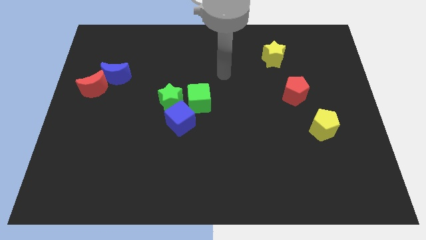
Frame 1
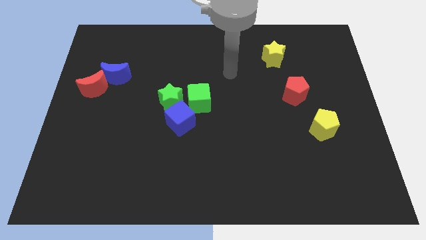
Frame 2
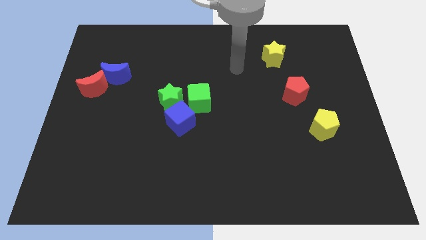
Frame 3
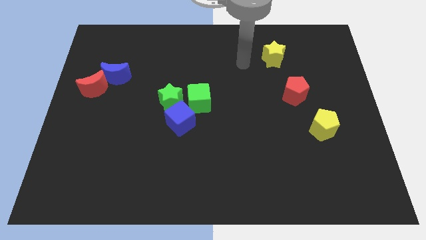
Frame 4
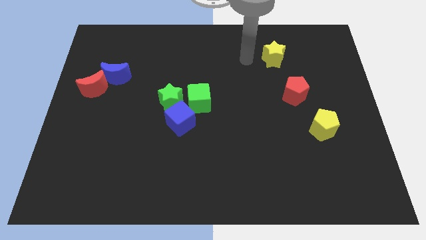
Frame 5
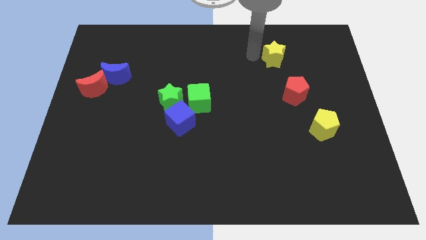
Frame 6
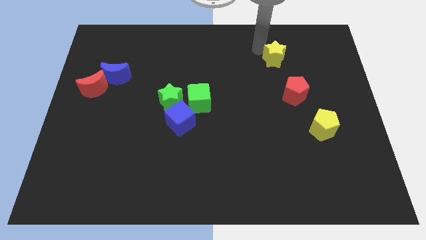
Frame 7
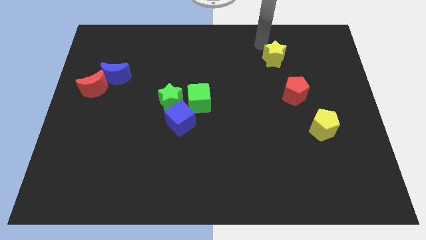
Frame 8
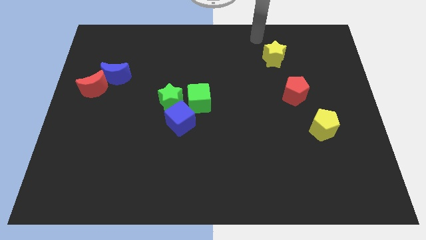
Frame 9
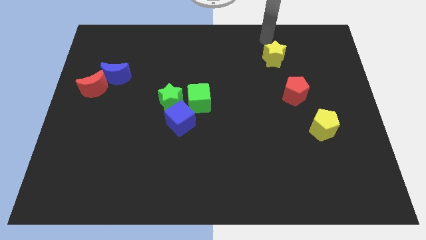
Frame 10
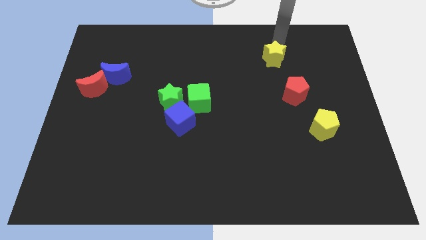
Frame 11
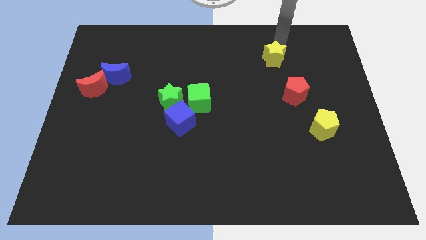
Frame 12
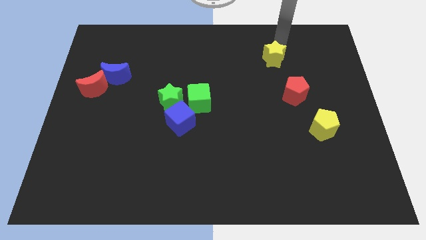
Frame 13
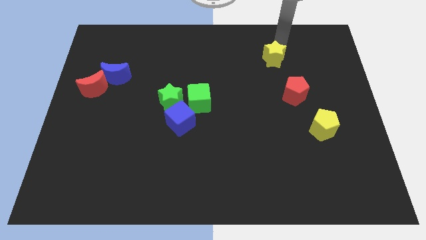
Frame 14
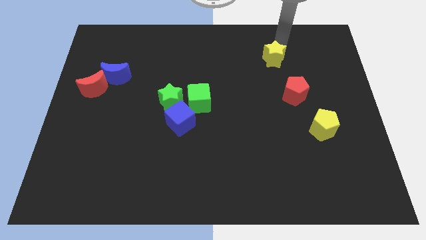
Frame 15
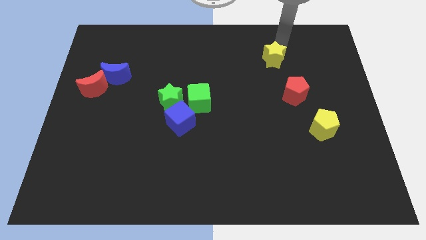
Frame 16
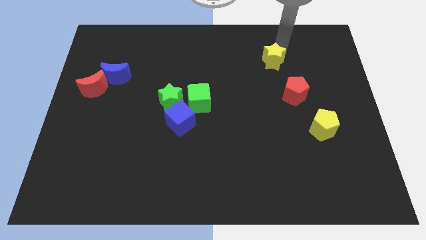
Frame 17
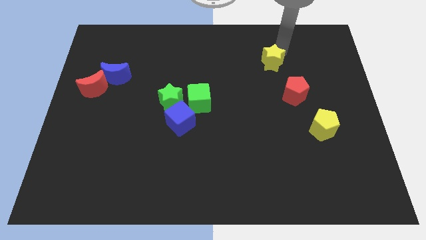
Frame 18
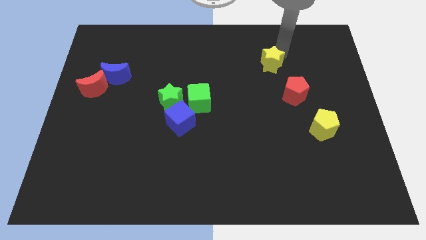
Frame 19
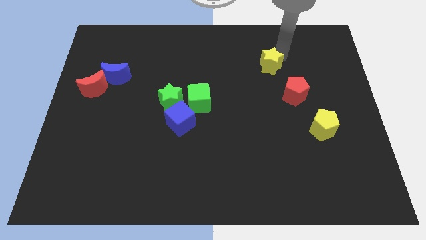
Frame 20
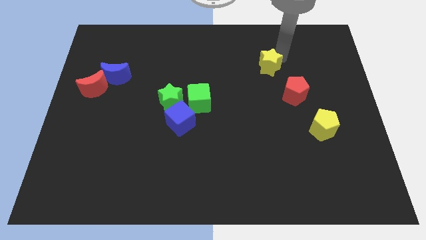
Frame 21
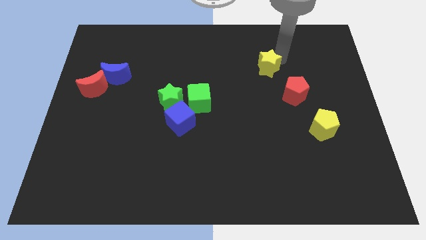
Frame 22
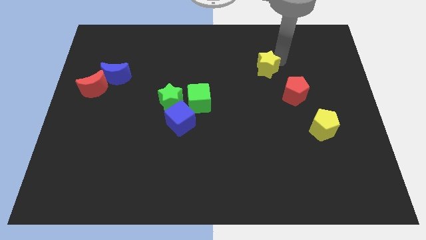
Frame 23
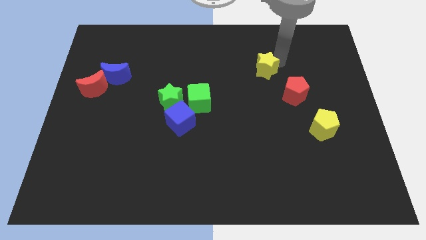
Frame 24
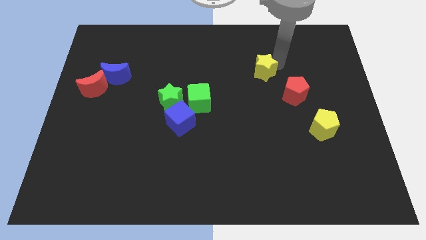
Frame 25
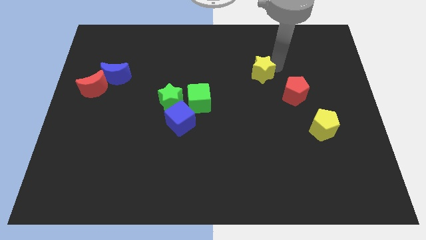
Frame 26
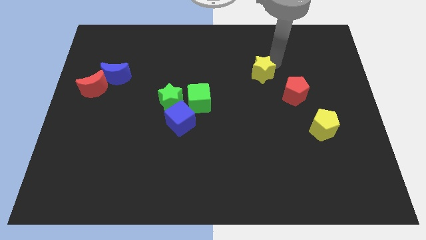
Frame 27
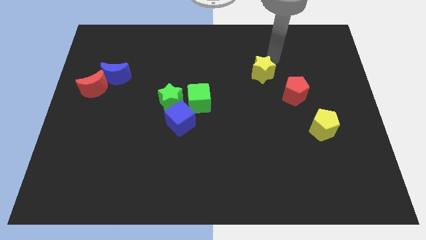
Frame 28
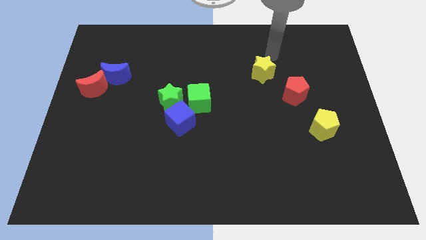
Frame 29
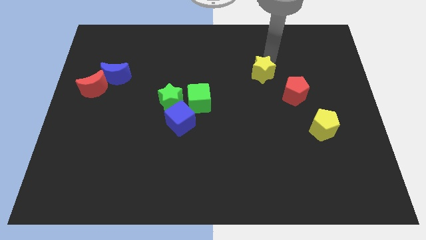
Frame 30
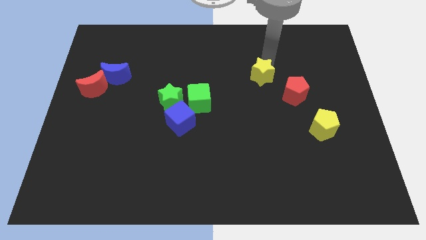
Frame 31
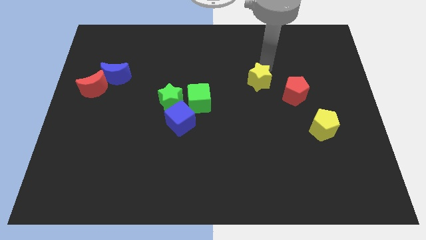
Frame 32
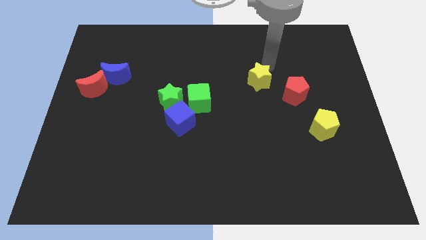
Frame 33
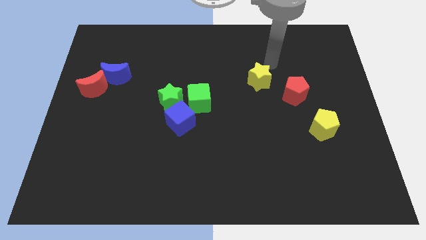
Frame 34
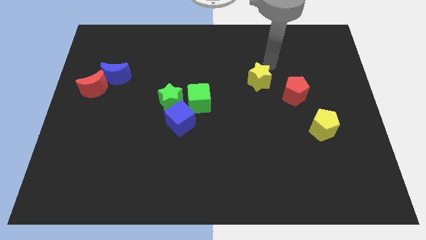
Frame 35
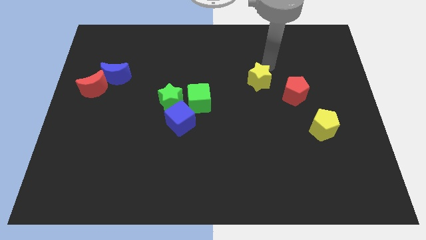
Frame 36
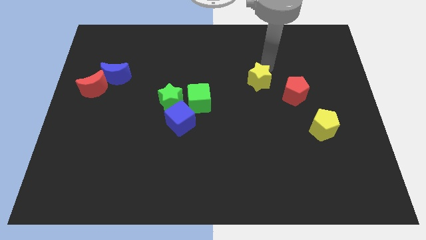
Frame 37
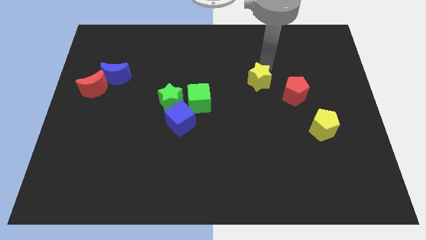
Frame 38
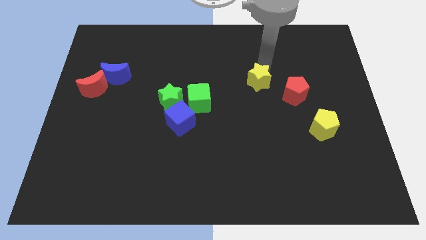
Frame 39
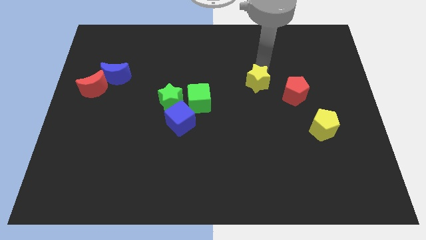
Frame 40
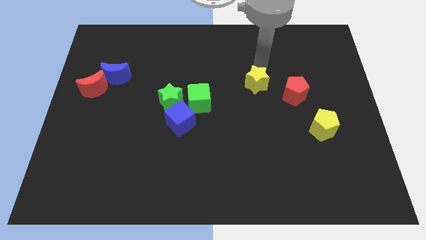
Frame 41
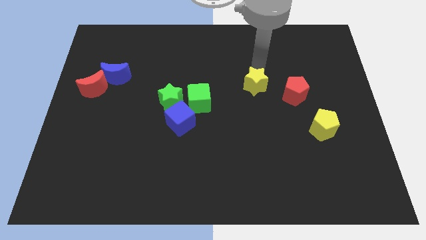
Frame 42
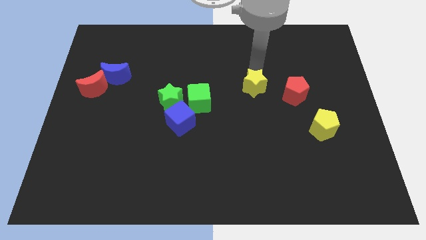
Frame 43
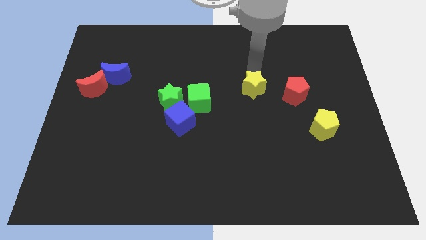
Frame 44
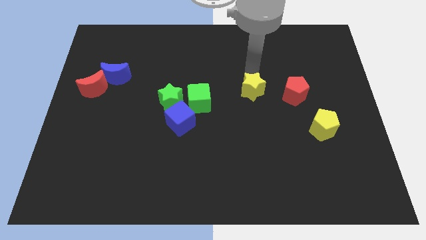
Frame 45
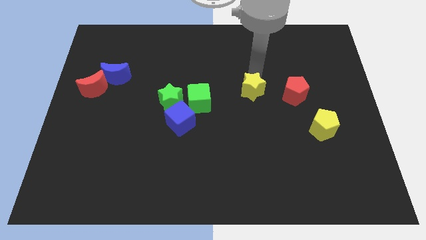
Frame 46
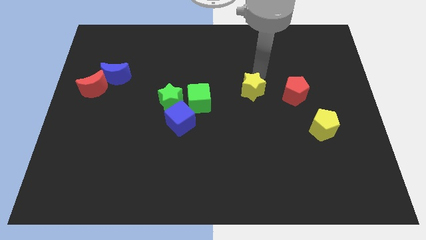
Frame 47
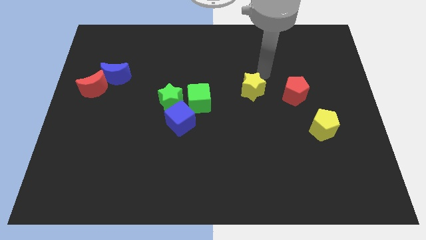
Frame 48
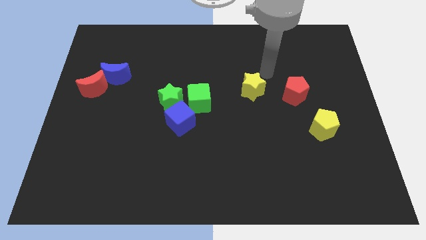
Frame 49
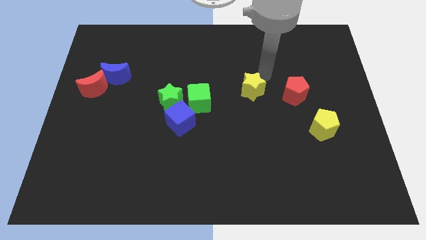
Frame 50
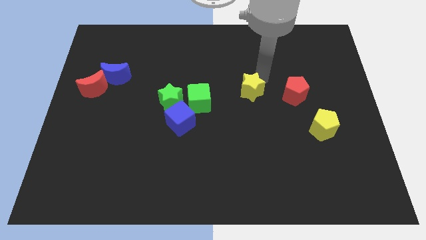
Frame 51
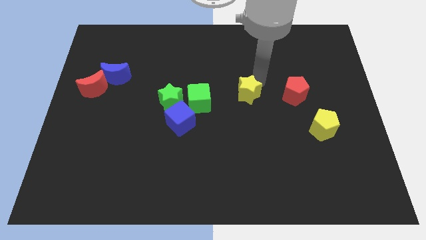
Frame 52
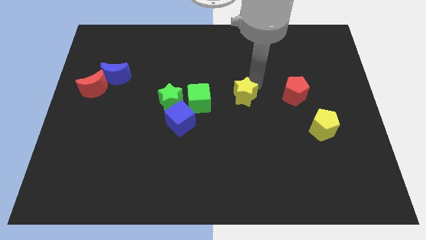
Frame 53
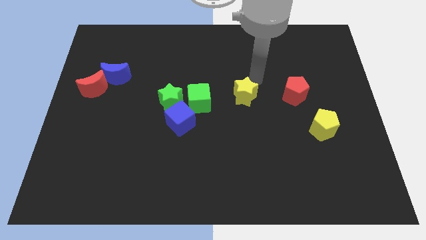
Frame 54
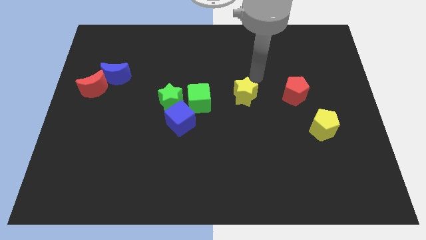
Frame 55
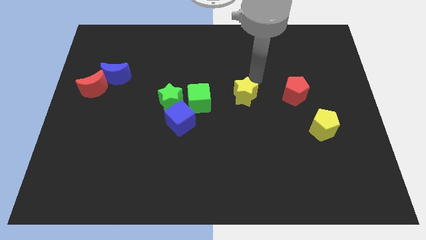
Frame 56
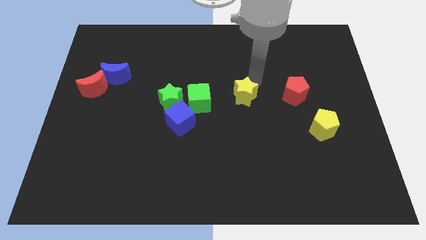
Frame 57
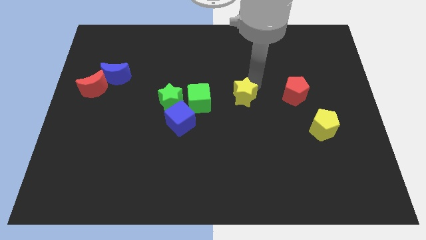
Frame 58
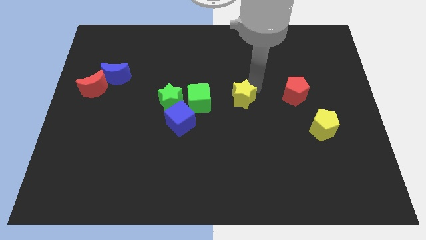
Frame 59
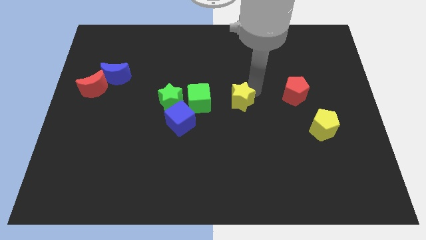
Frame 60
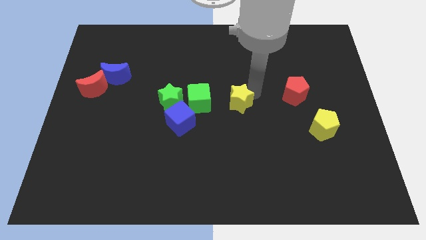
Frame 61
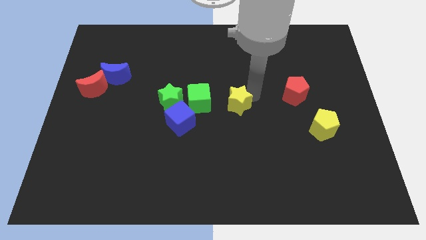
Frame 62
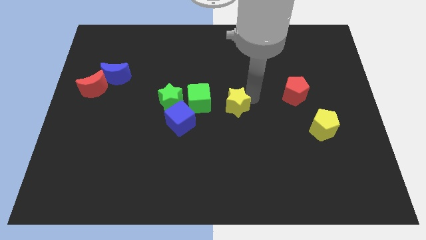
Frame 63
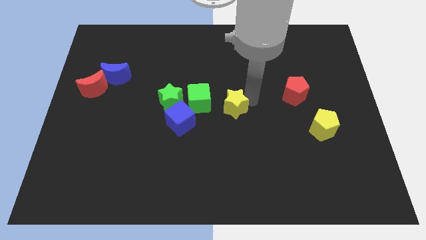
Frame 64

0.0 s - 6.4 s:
push the yellow star to the right side of the blue cube
